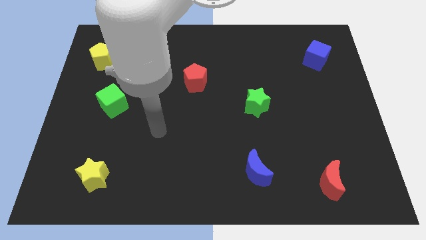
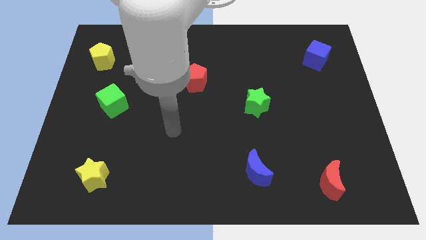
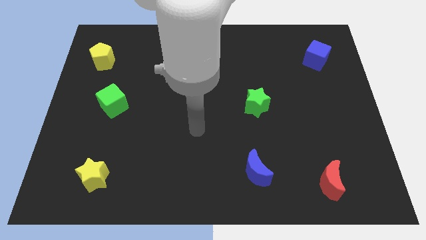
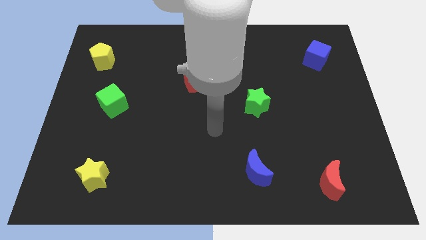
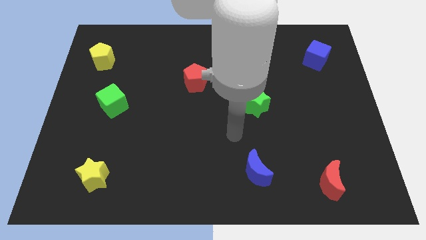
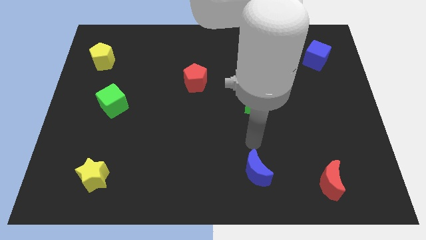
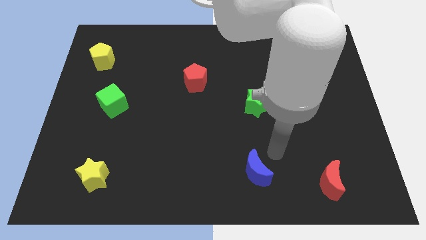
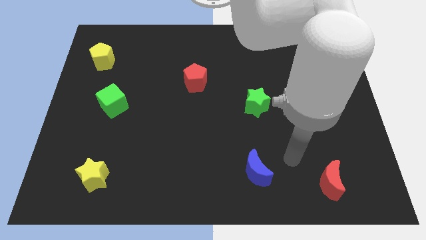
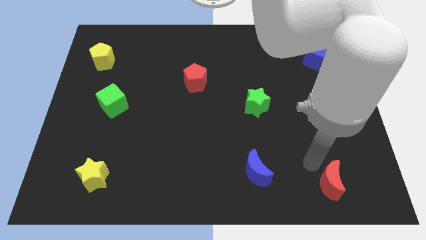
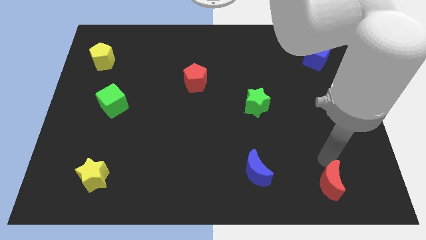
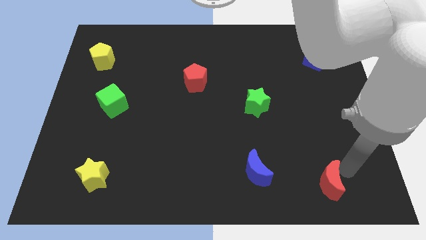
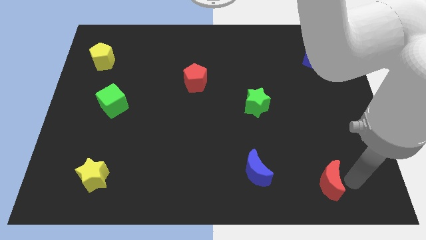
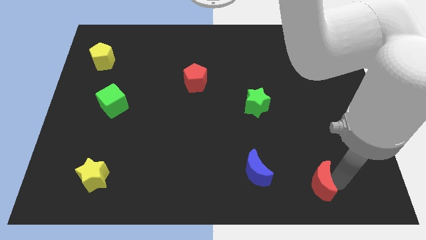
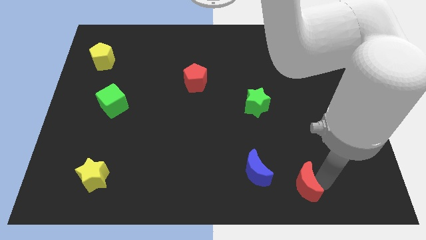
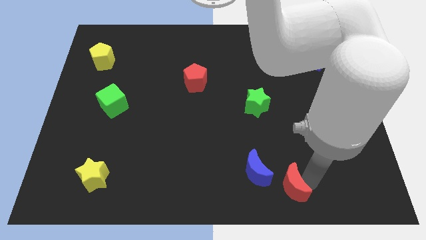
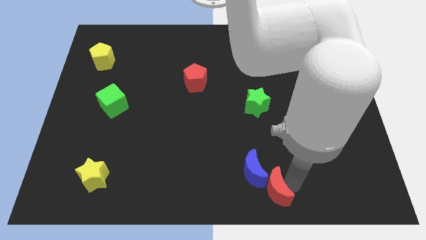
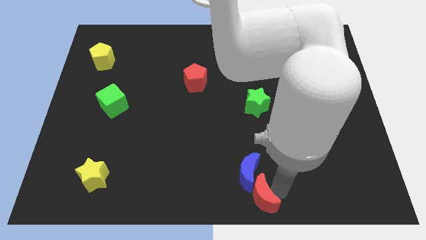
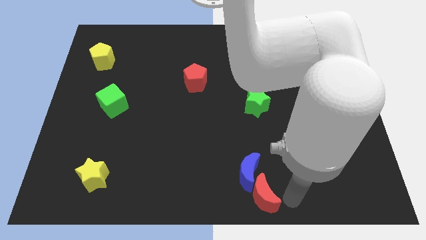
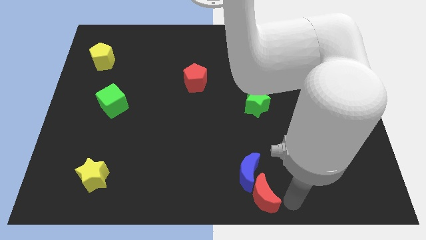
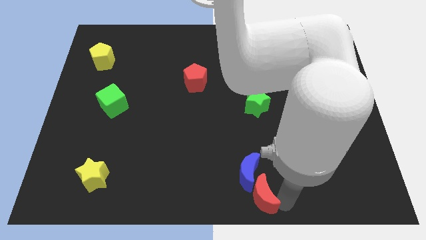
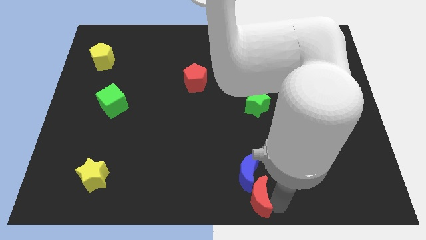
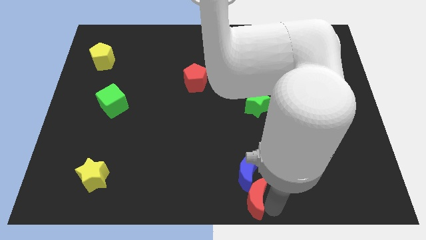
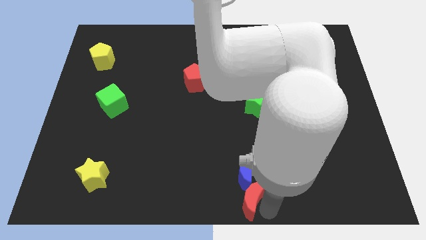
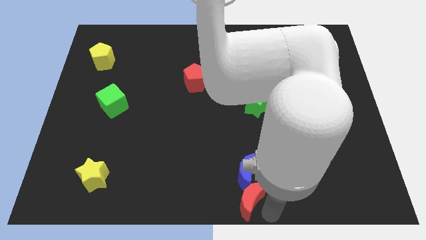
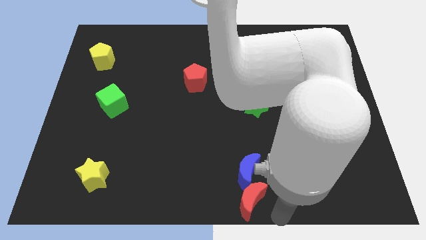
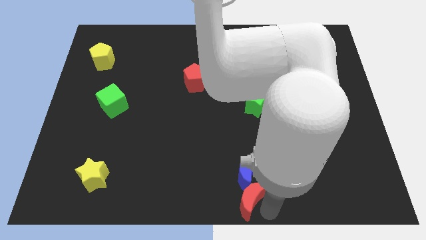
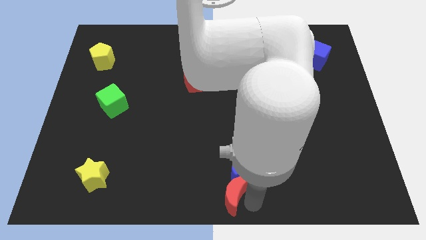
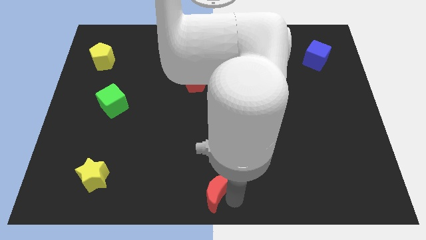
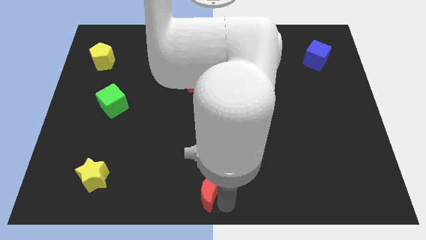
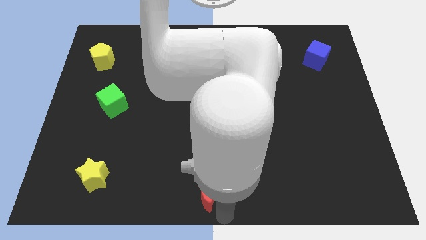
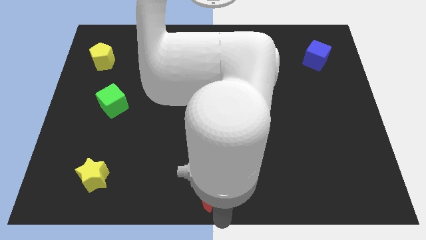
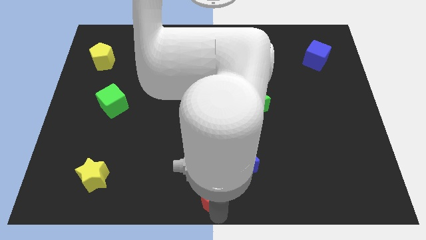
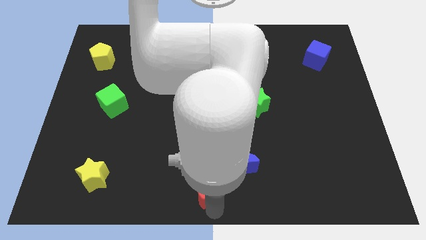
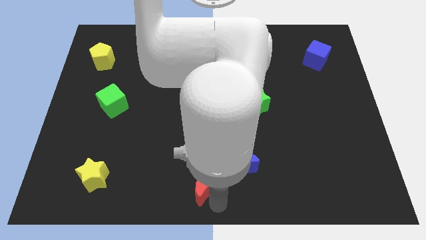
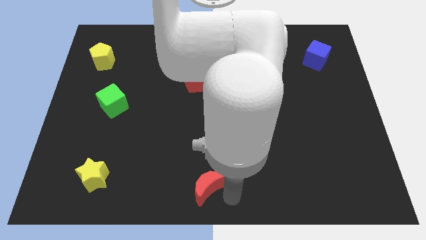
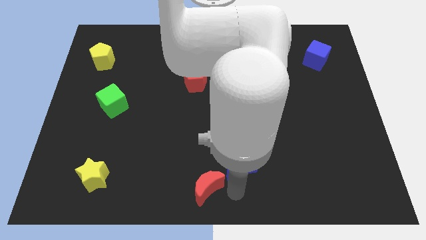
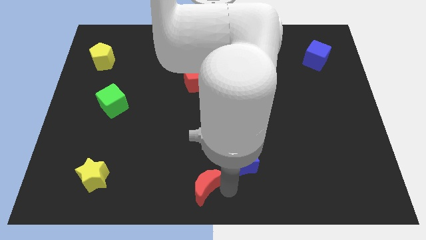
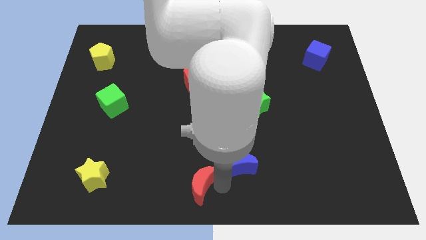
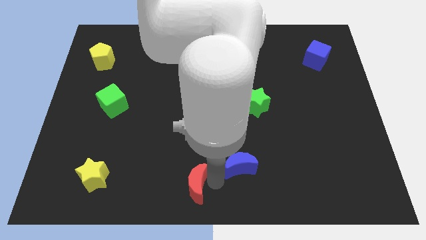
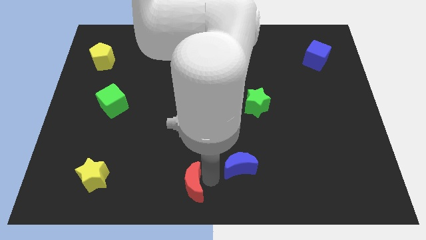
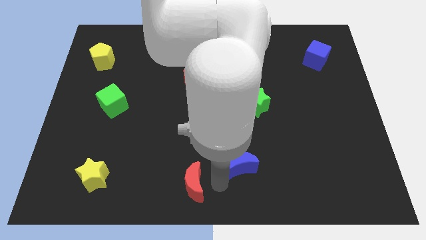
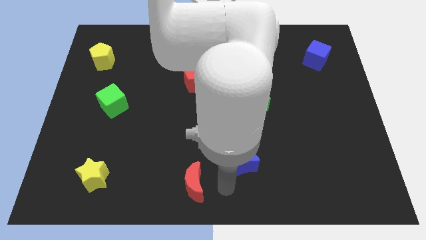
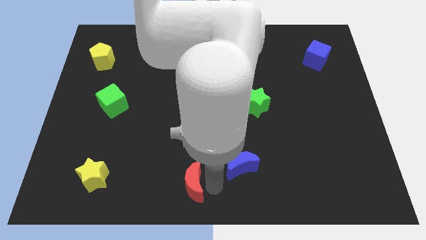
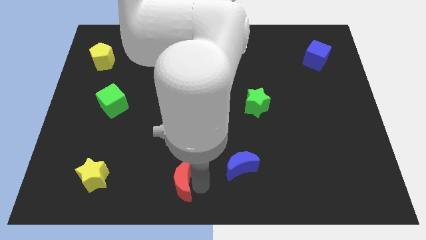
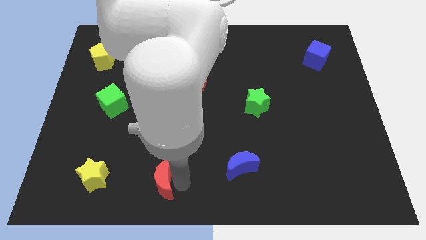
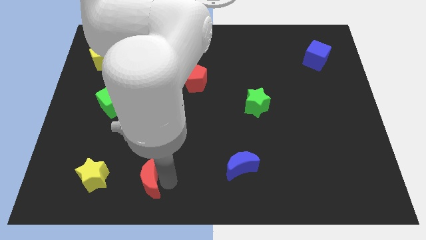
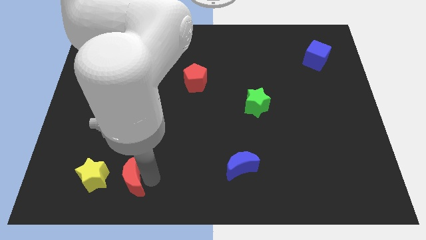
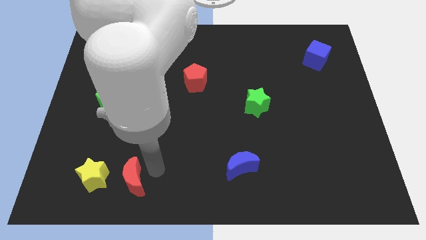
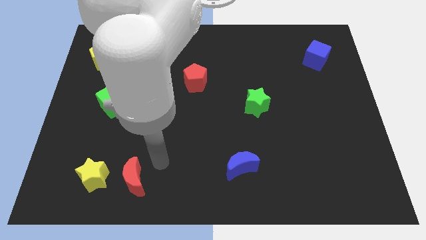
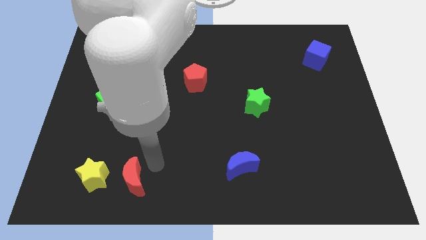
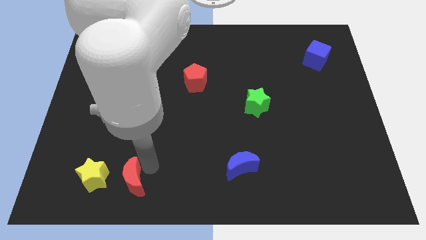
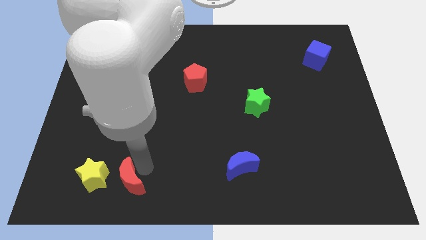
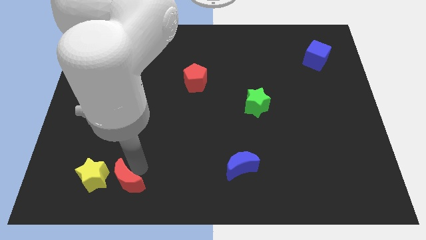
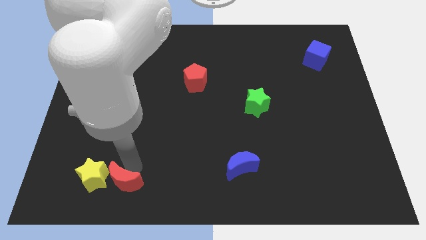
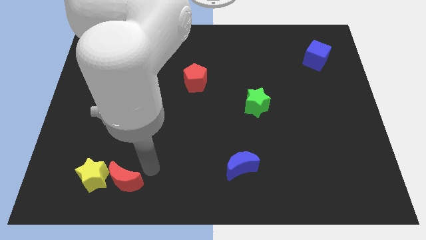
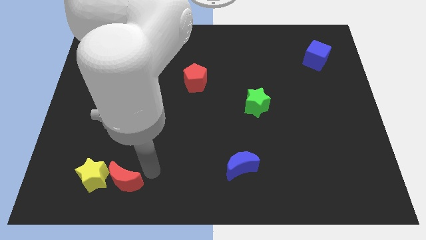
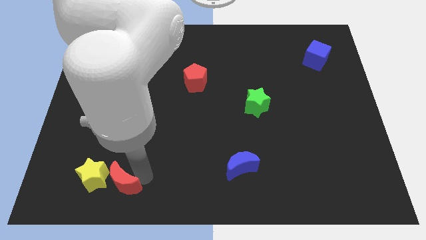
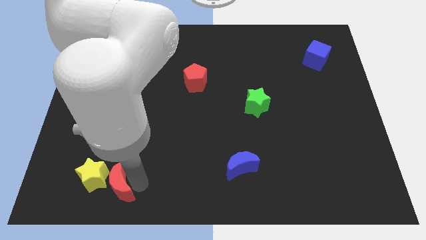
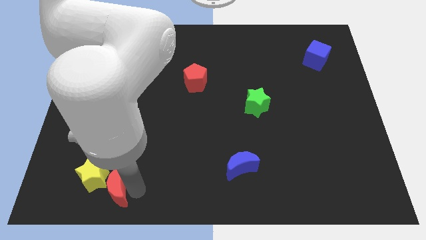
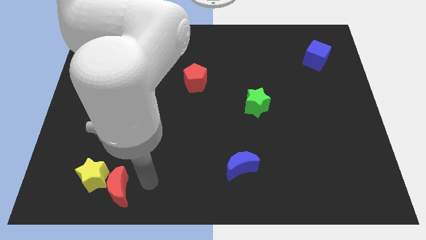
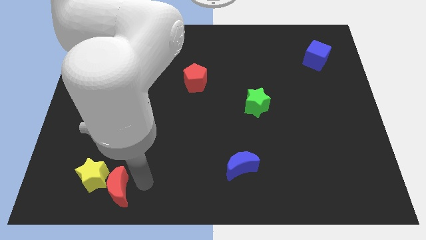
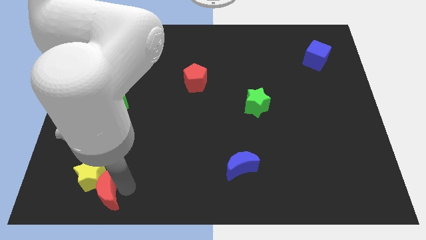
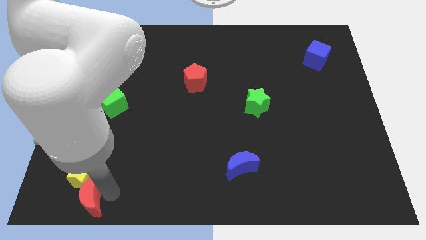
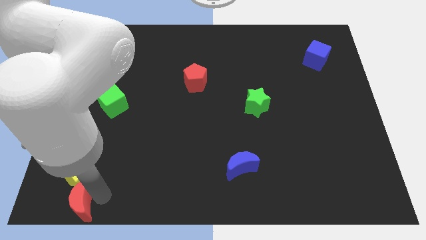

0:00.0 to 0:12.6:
slide the red moon to the bottom left of the board
